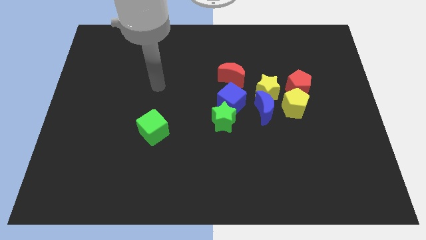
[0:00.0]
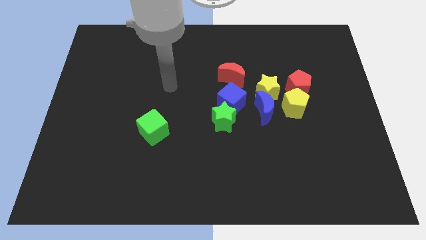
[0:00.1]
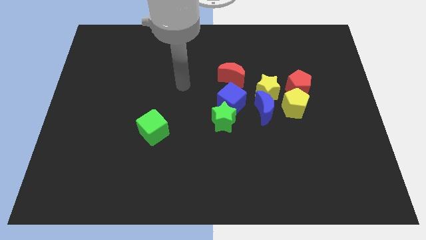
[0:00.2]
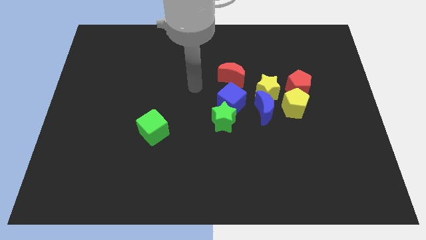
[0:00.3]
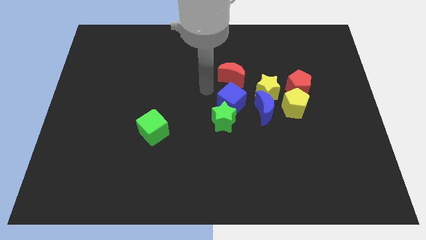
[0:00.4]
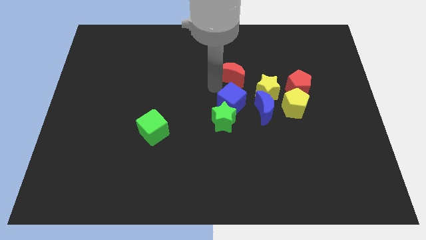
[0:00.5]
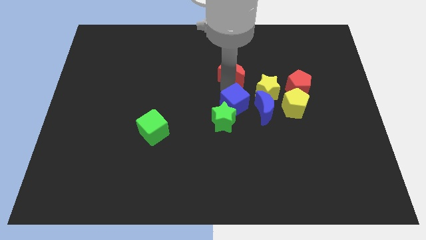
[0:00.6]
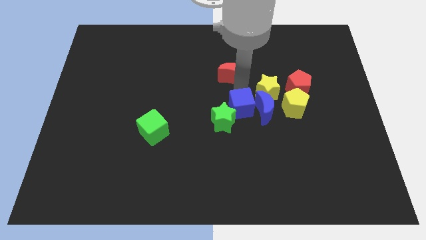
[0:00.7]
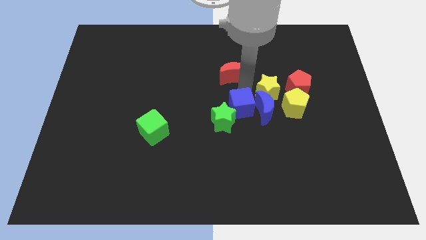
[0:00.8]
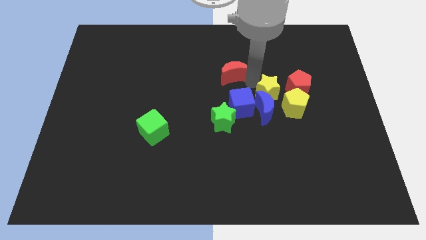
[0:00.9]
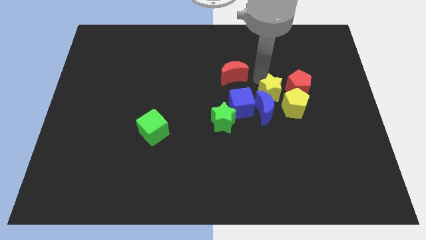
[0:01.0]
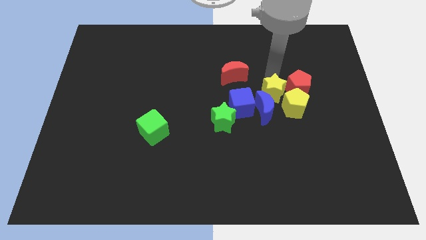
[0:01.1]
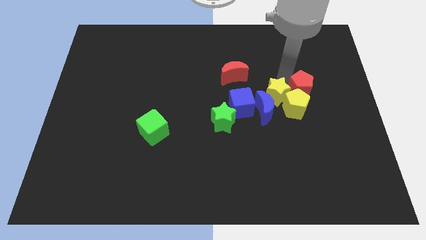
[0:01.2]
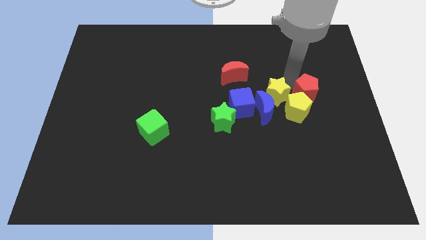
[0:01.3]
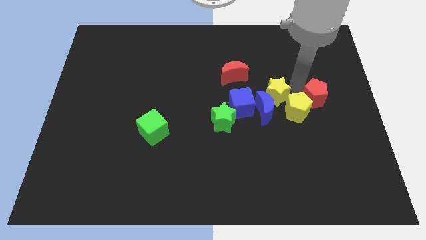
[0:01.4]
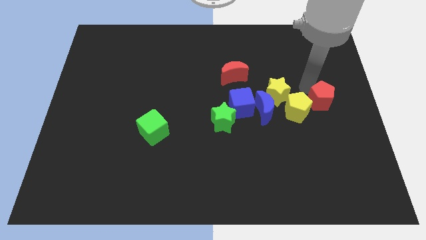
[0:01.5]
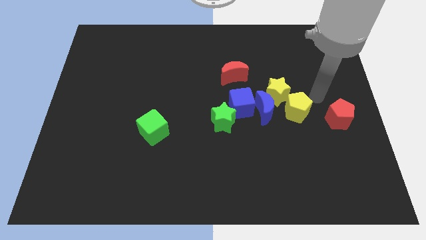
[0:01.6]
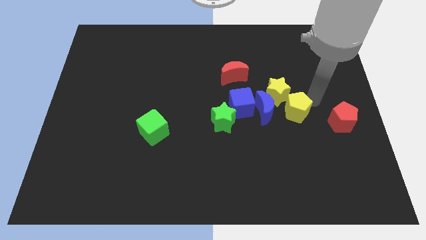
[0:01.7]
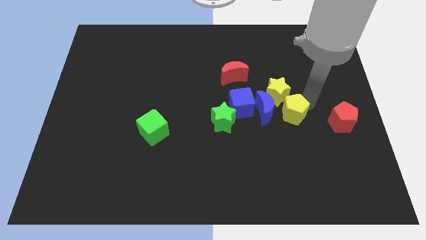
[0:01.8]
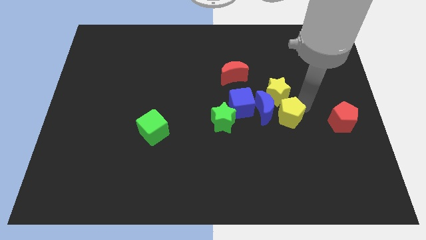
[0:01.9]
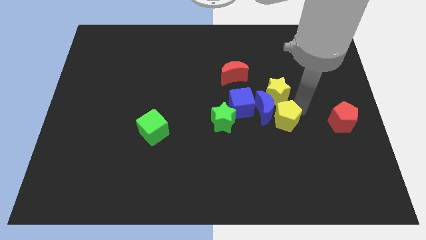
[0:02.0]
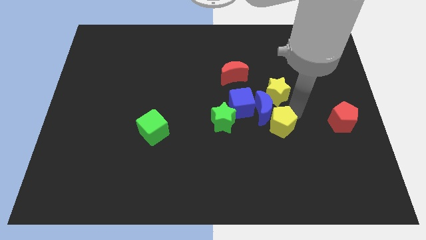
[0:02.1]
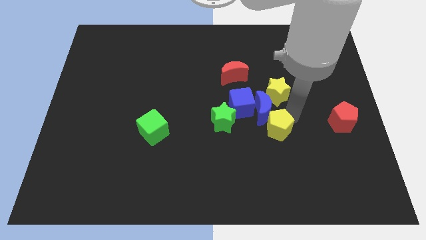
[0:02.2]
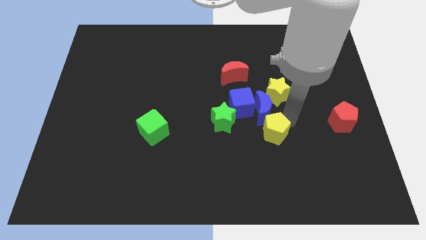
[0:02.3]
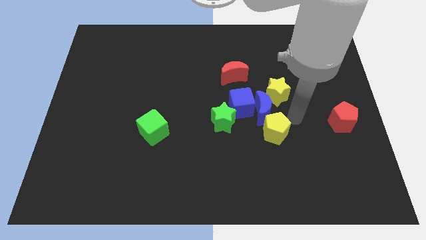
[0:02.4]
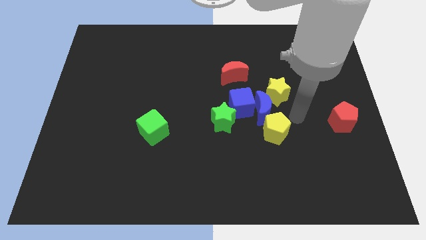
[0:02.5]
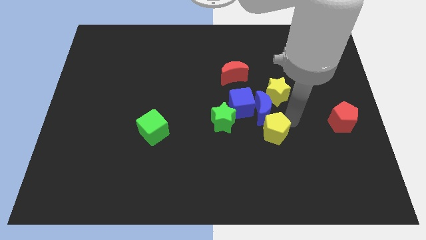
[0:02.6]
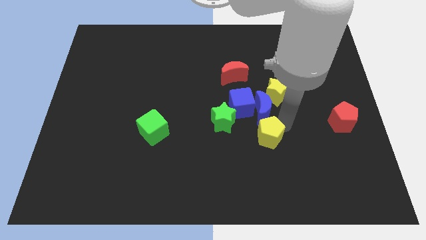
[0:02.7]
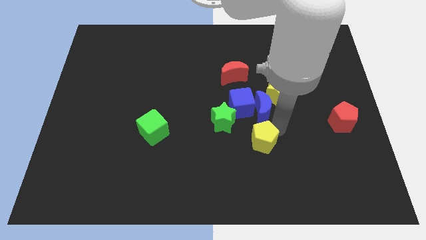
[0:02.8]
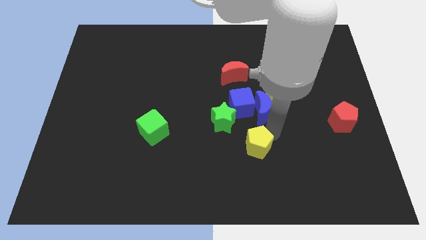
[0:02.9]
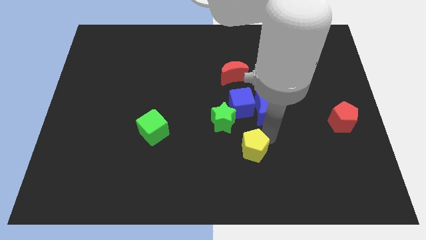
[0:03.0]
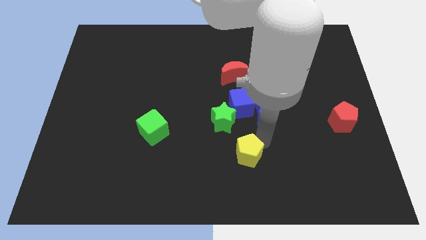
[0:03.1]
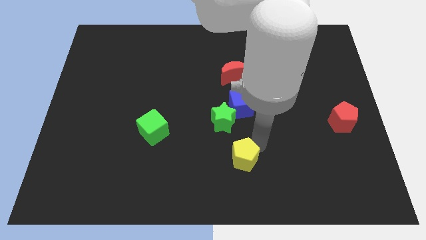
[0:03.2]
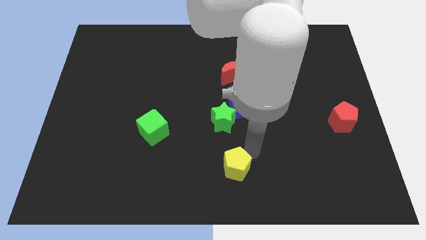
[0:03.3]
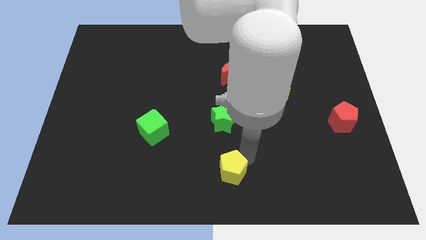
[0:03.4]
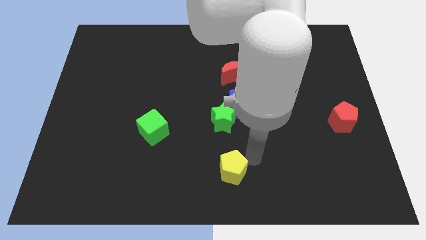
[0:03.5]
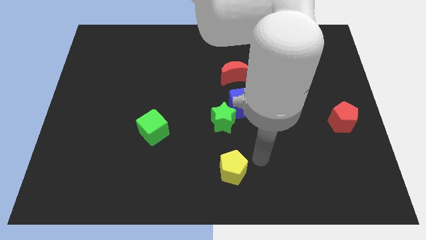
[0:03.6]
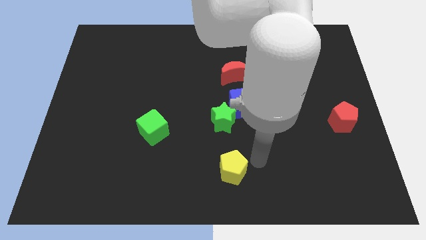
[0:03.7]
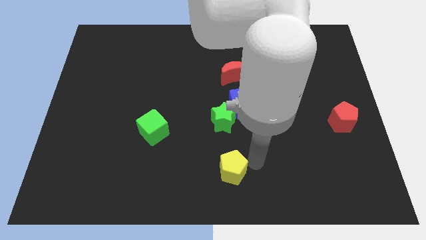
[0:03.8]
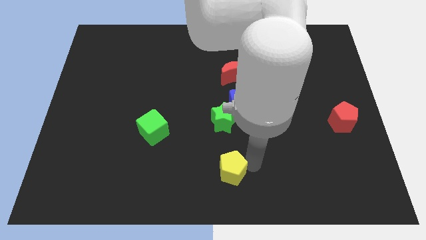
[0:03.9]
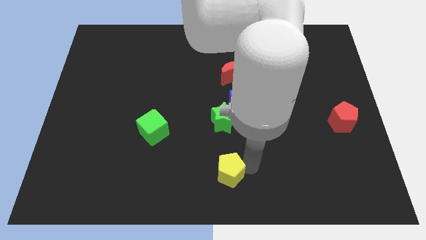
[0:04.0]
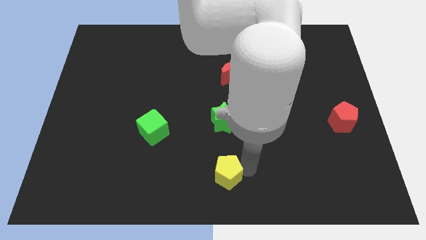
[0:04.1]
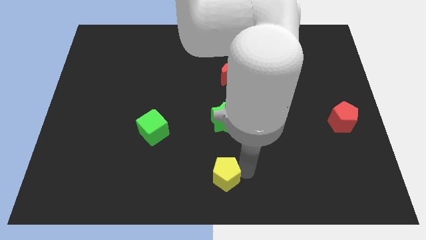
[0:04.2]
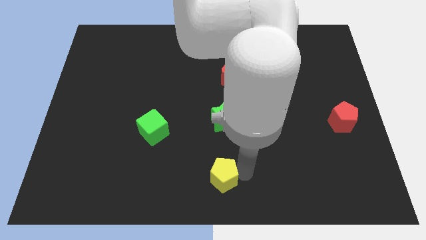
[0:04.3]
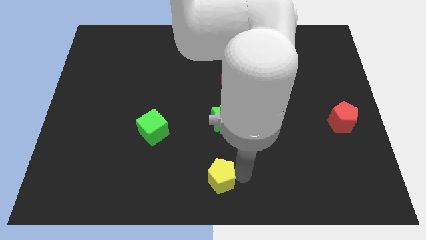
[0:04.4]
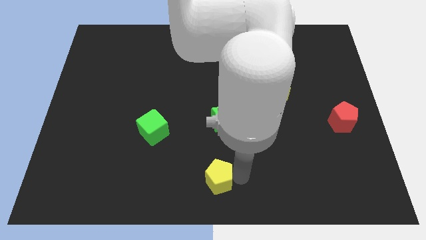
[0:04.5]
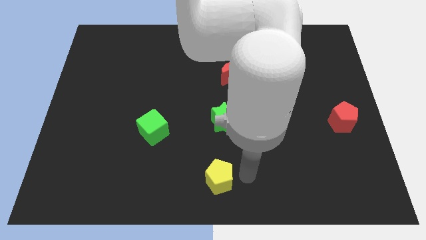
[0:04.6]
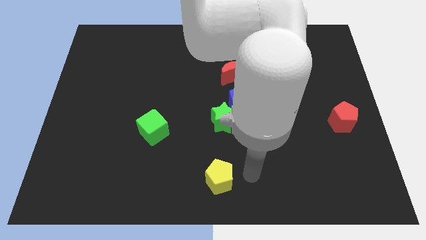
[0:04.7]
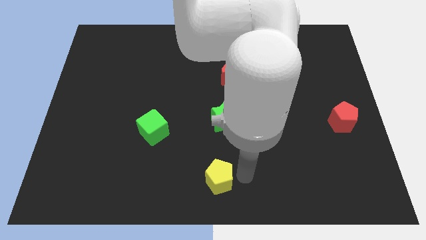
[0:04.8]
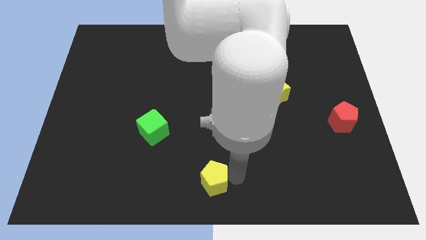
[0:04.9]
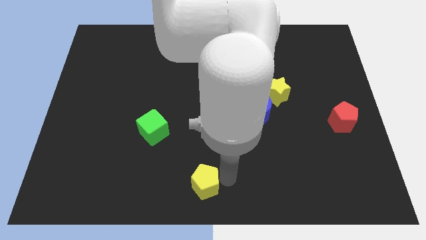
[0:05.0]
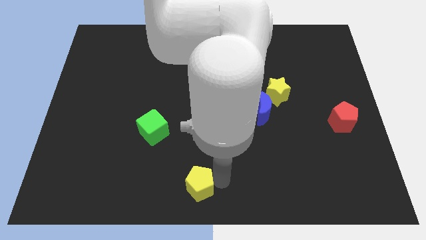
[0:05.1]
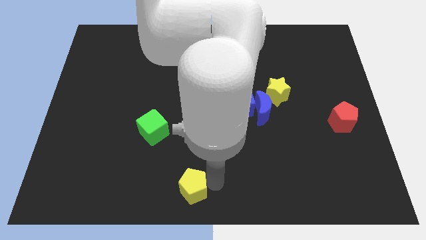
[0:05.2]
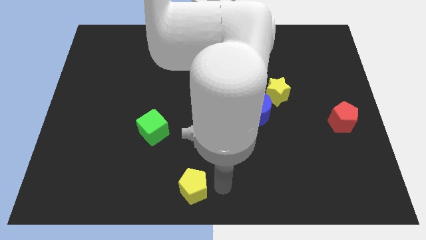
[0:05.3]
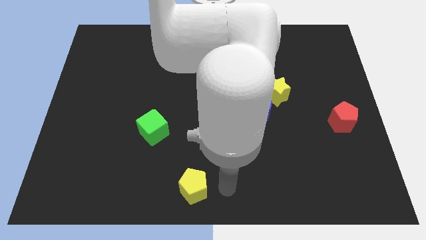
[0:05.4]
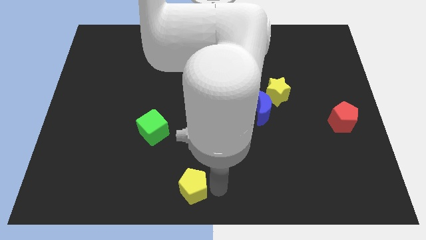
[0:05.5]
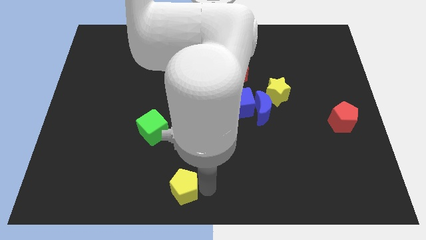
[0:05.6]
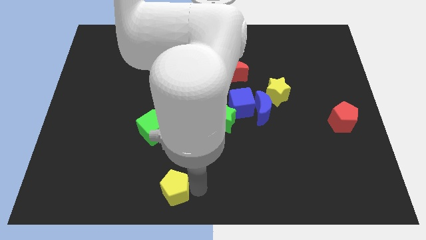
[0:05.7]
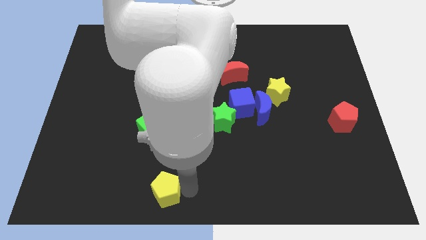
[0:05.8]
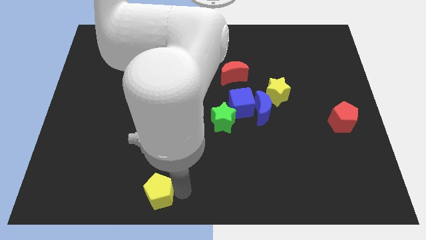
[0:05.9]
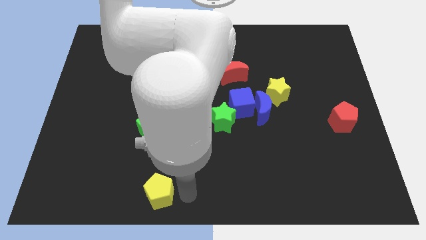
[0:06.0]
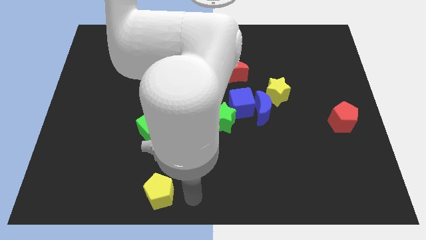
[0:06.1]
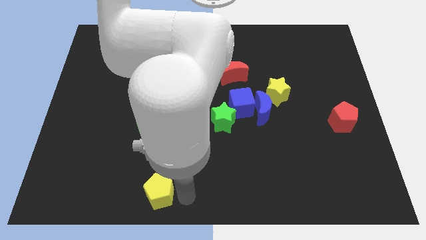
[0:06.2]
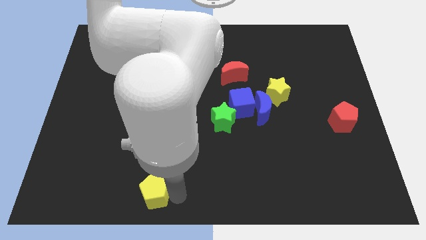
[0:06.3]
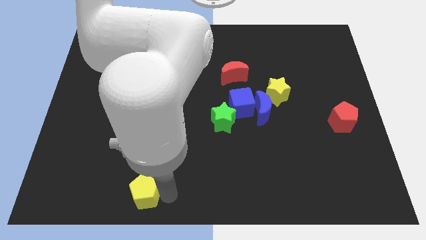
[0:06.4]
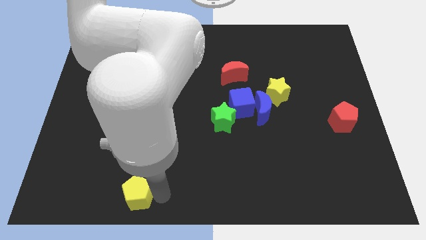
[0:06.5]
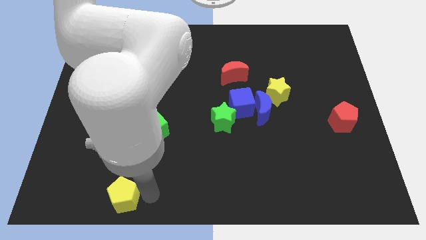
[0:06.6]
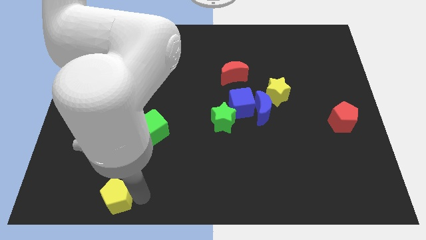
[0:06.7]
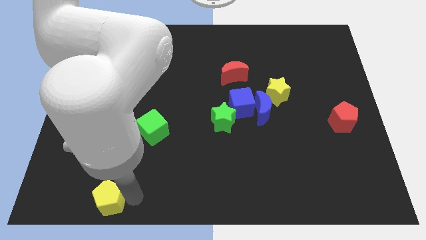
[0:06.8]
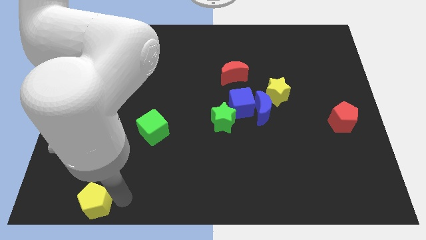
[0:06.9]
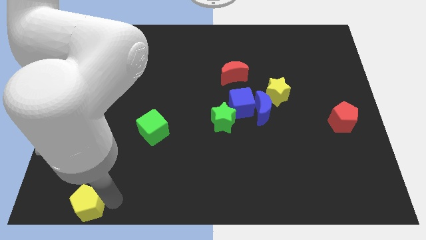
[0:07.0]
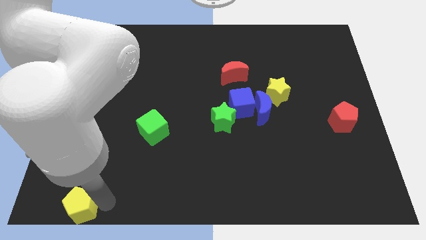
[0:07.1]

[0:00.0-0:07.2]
move the yellow pentagon to the bottom left
